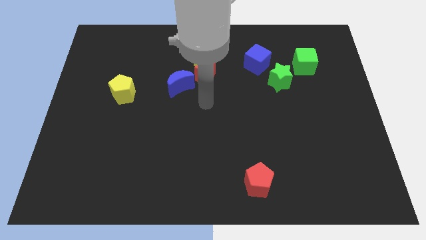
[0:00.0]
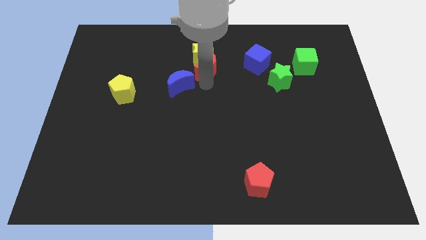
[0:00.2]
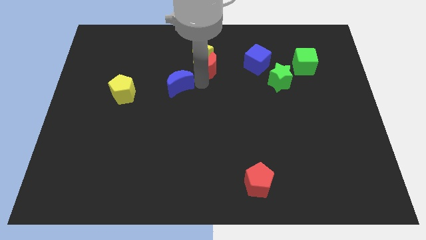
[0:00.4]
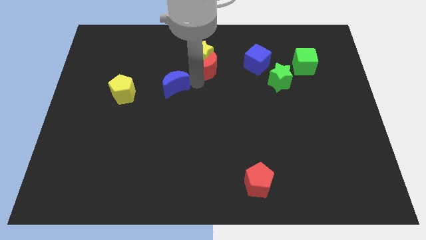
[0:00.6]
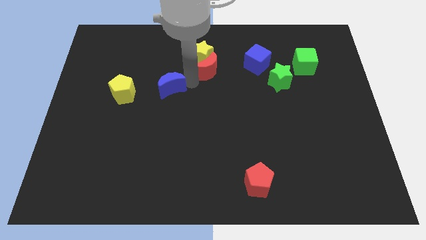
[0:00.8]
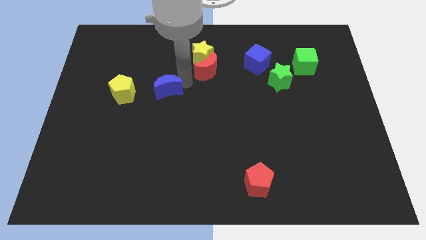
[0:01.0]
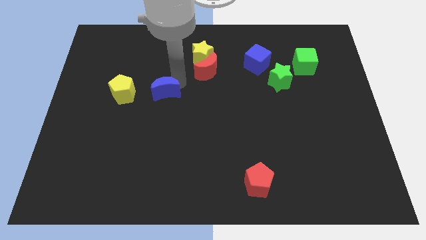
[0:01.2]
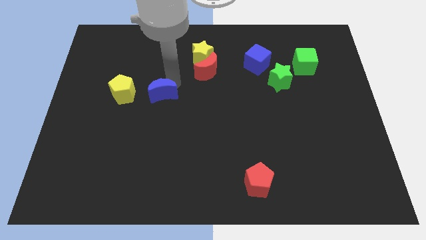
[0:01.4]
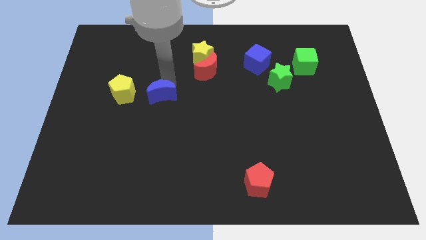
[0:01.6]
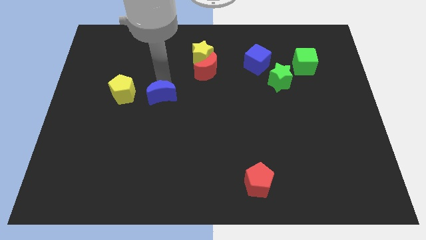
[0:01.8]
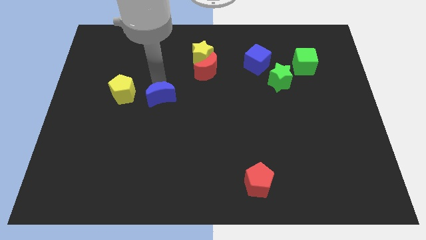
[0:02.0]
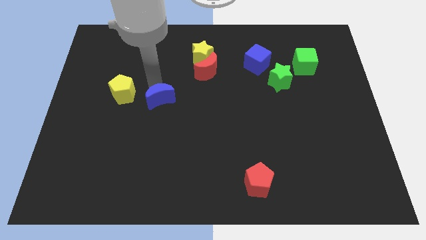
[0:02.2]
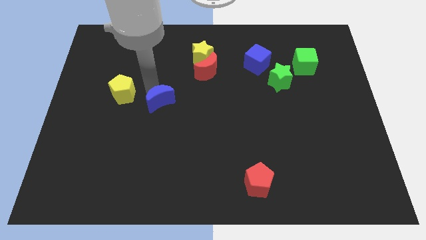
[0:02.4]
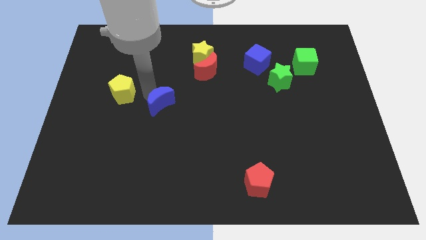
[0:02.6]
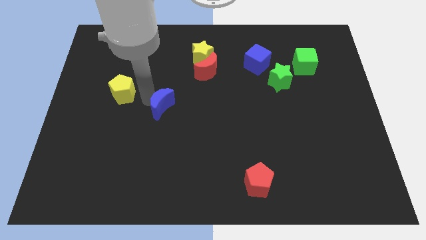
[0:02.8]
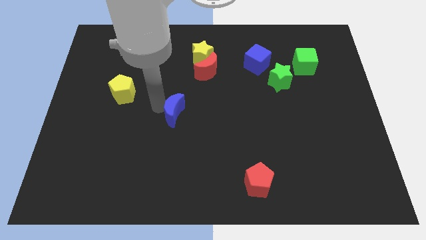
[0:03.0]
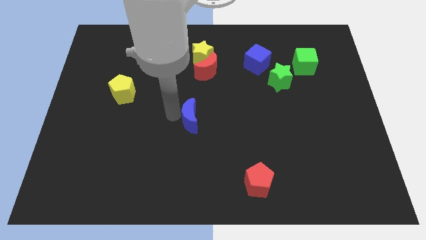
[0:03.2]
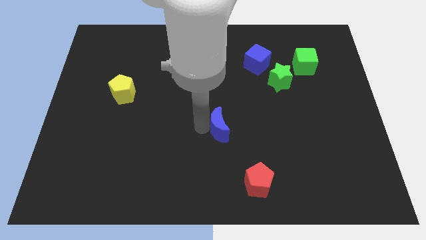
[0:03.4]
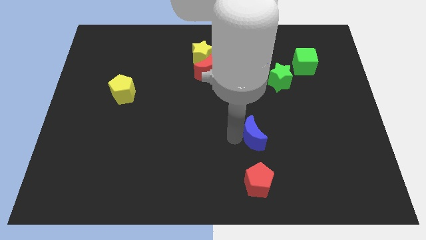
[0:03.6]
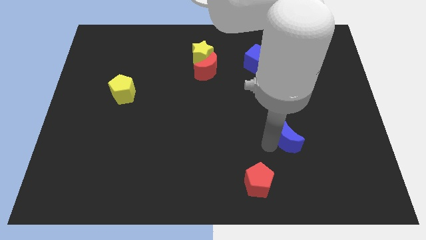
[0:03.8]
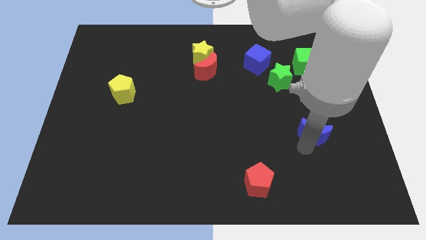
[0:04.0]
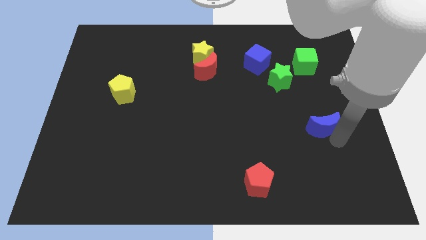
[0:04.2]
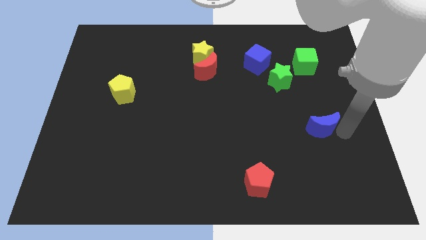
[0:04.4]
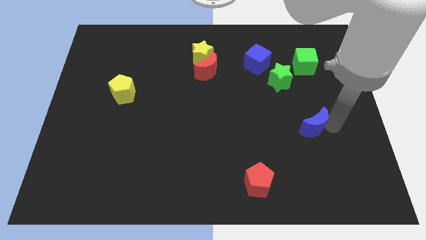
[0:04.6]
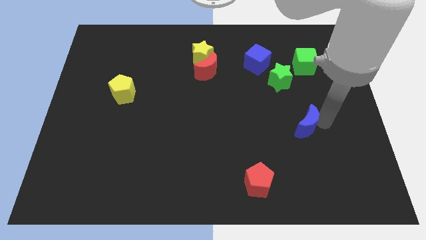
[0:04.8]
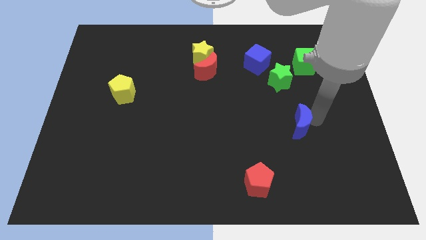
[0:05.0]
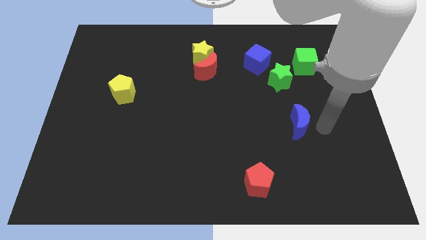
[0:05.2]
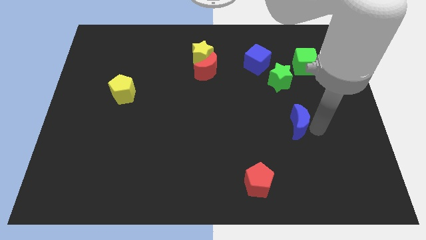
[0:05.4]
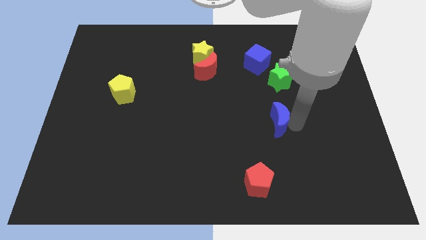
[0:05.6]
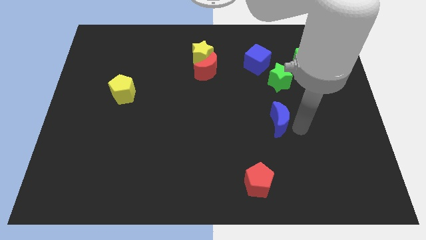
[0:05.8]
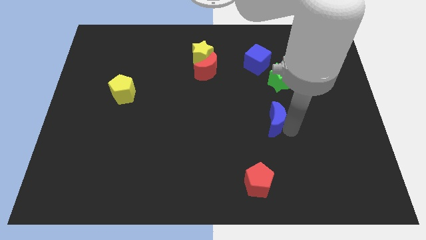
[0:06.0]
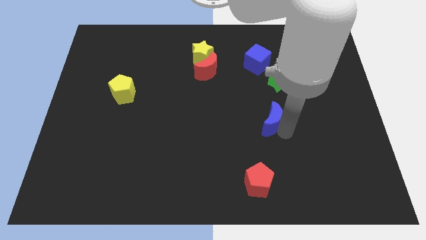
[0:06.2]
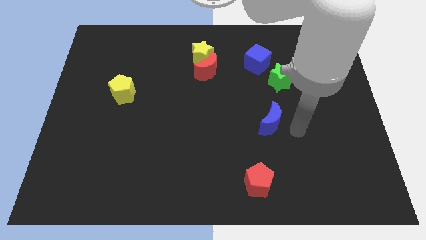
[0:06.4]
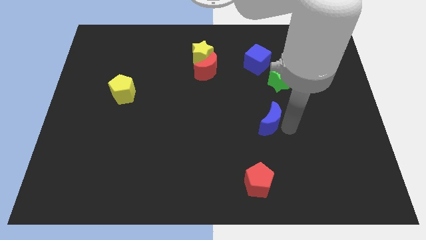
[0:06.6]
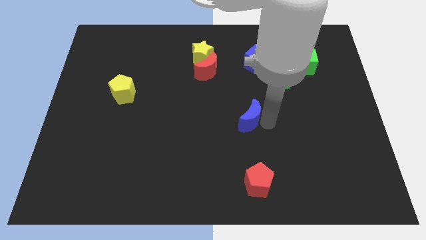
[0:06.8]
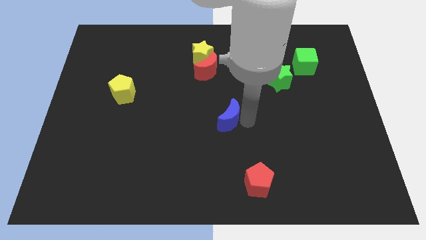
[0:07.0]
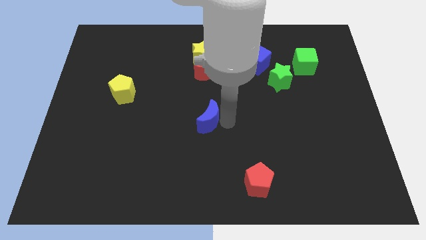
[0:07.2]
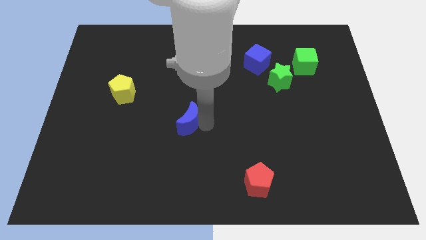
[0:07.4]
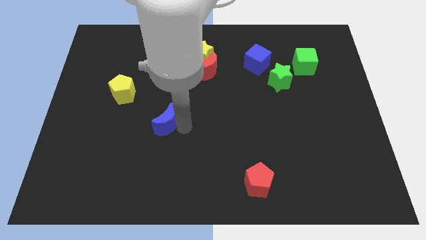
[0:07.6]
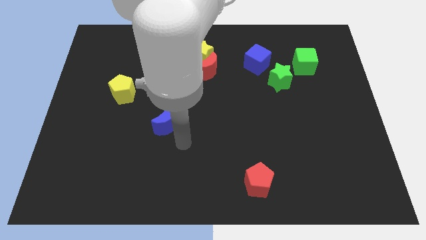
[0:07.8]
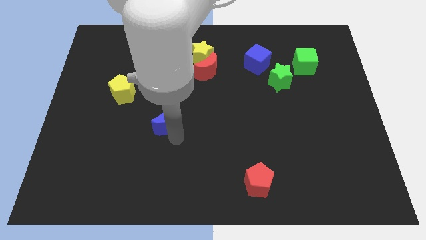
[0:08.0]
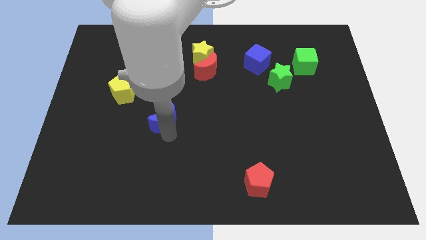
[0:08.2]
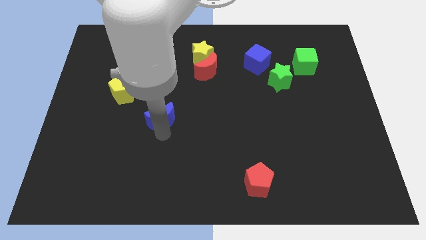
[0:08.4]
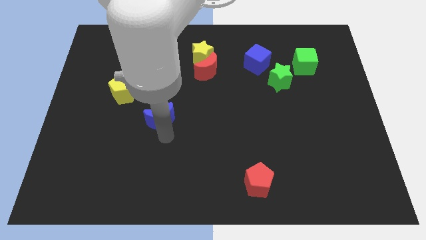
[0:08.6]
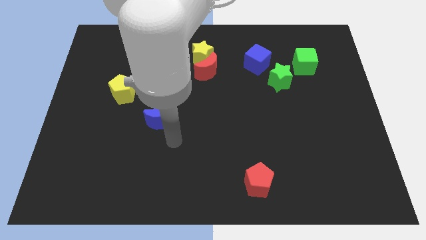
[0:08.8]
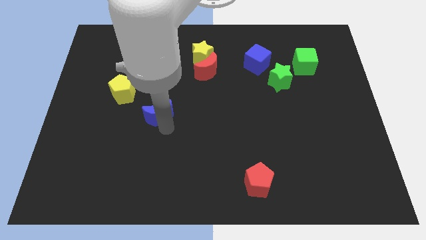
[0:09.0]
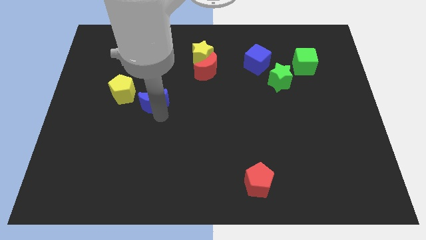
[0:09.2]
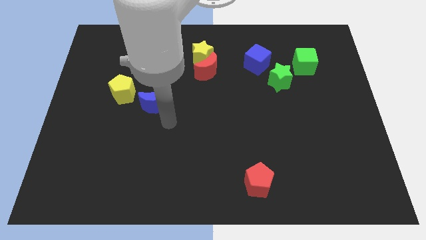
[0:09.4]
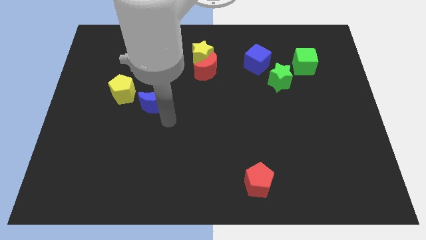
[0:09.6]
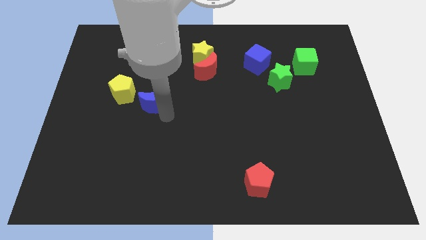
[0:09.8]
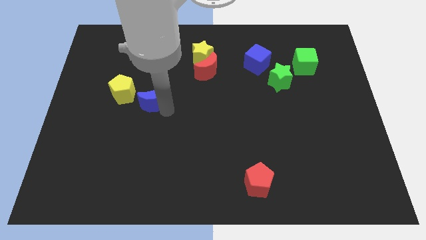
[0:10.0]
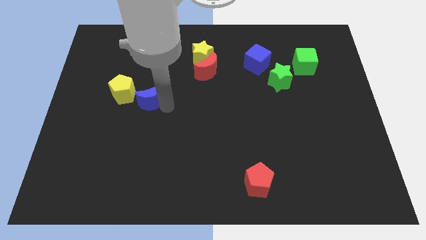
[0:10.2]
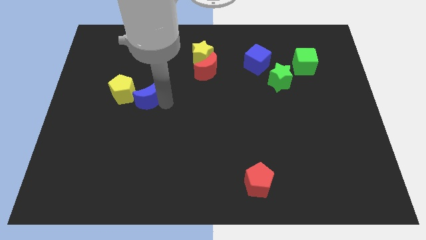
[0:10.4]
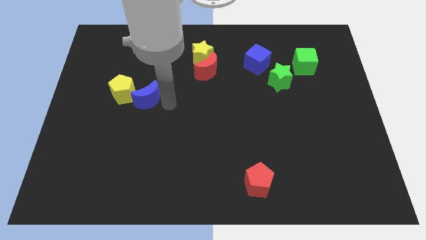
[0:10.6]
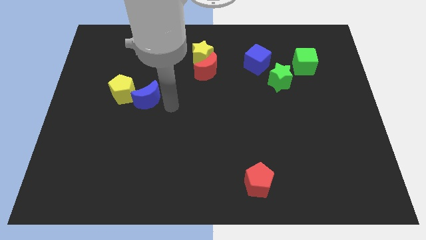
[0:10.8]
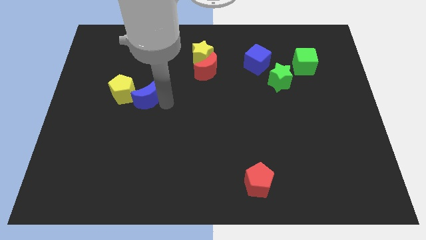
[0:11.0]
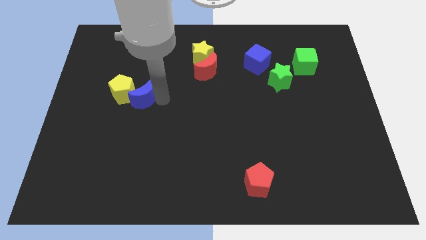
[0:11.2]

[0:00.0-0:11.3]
slide the blue moon towards the yellow pentagon

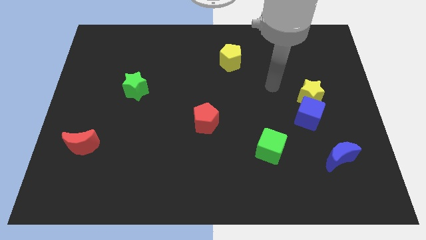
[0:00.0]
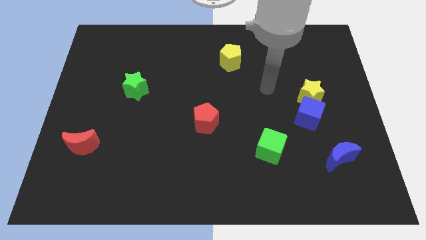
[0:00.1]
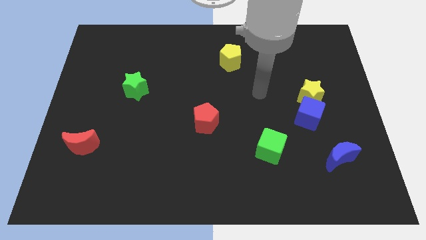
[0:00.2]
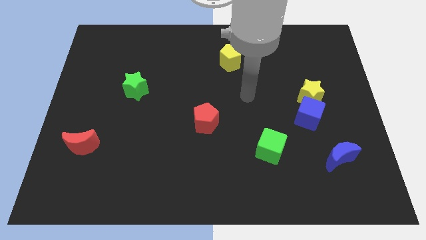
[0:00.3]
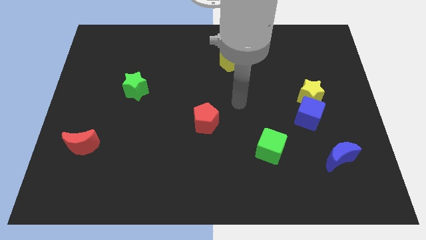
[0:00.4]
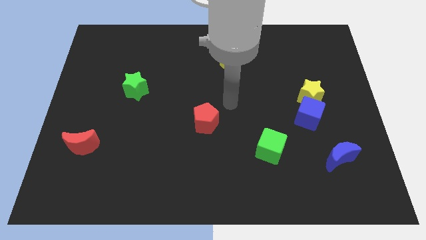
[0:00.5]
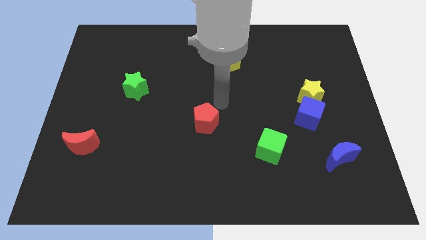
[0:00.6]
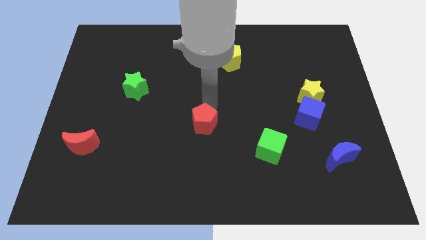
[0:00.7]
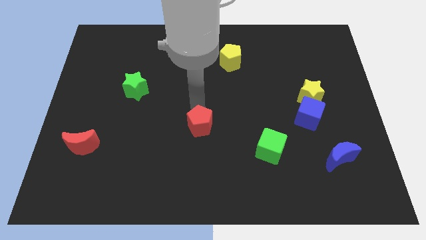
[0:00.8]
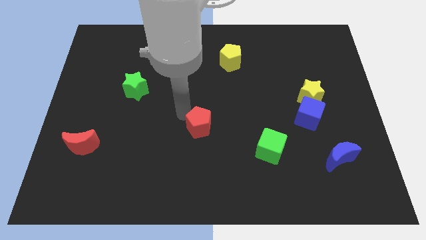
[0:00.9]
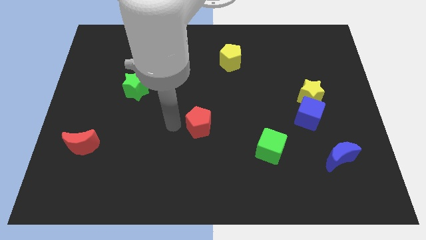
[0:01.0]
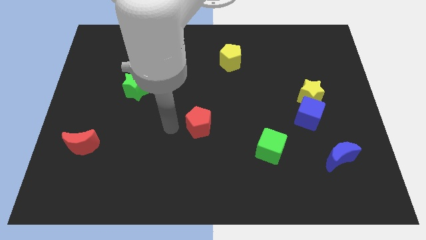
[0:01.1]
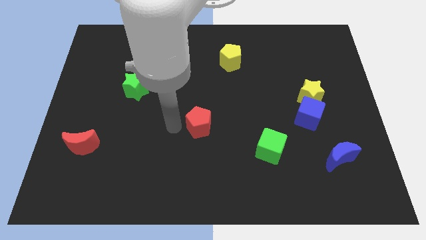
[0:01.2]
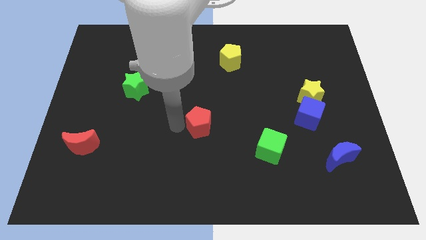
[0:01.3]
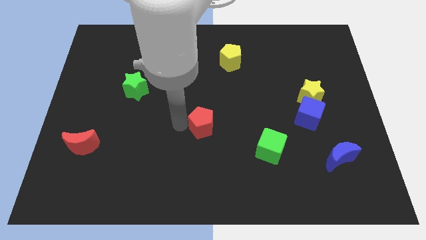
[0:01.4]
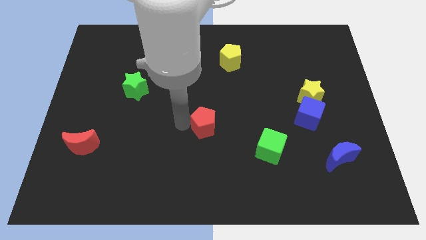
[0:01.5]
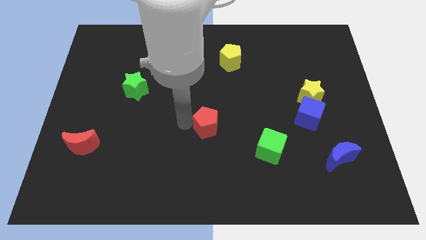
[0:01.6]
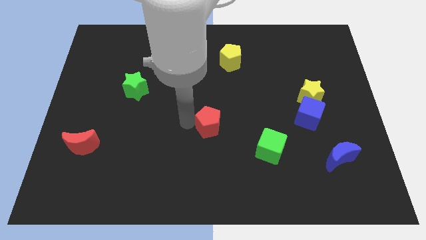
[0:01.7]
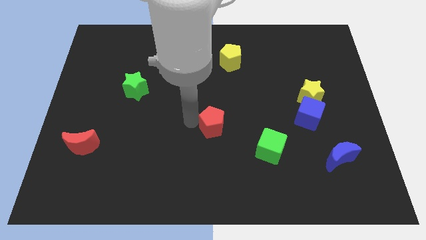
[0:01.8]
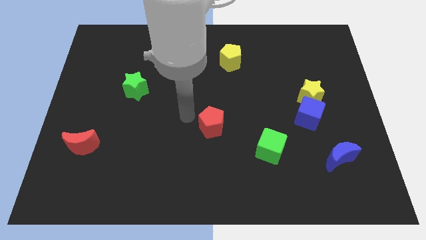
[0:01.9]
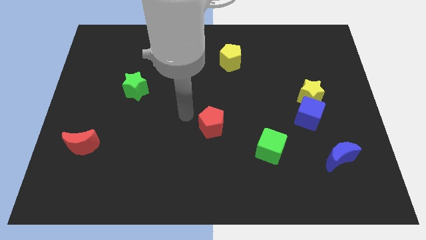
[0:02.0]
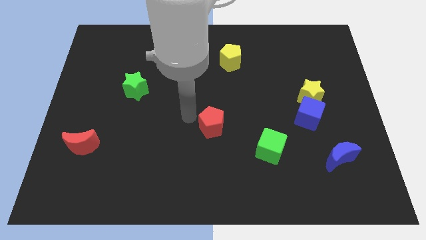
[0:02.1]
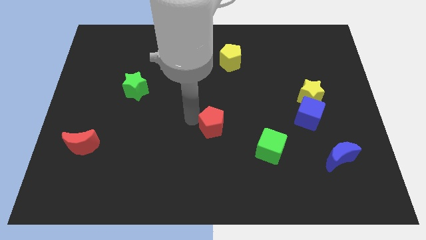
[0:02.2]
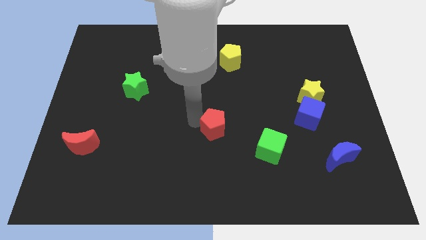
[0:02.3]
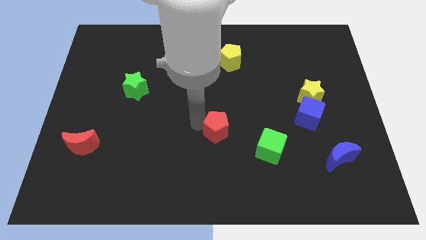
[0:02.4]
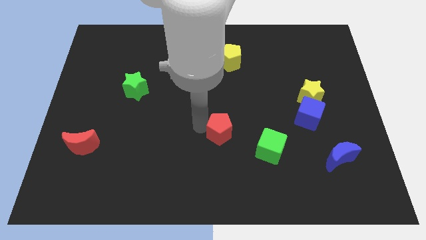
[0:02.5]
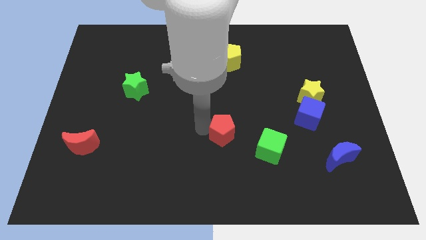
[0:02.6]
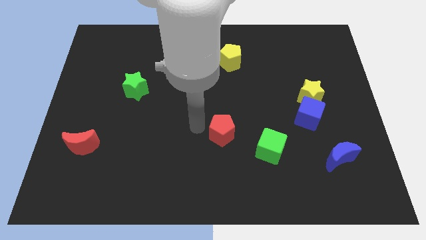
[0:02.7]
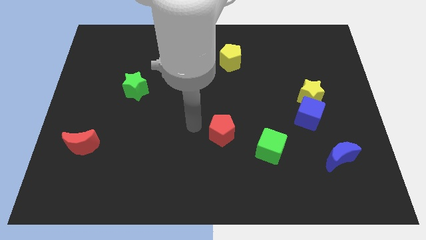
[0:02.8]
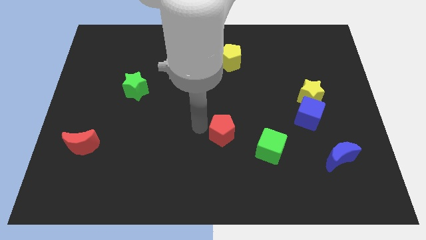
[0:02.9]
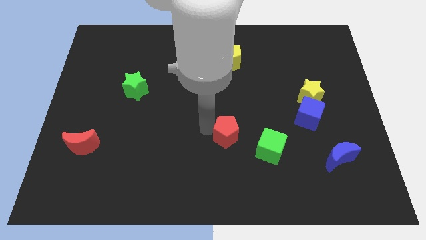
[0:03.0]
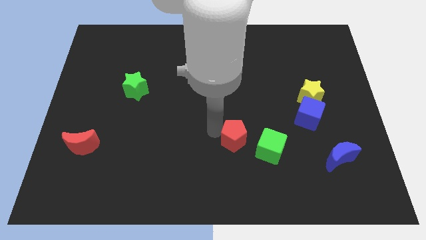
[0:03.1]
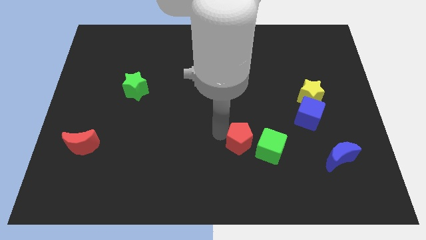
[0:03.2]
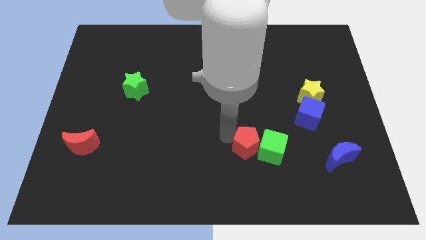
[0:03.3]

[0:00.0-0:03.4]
slide the red pentagon to the green cube
